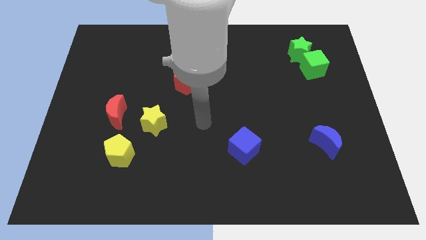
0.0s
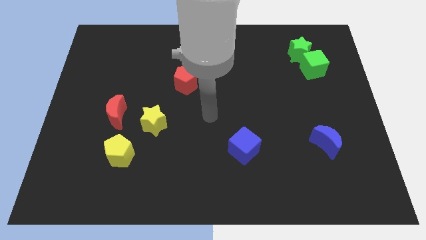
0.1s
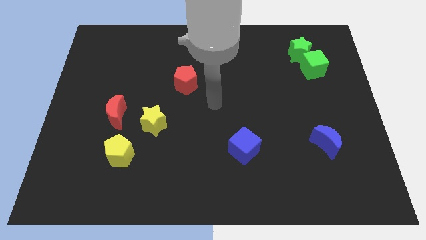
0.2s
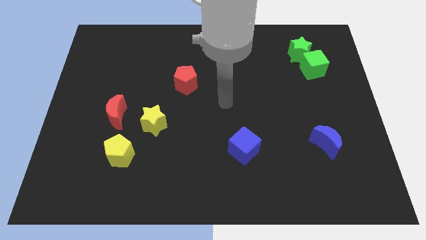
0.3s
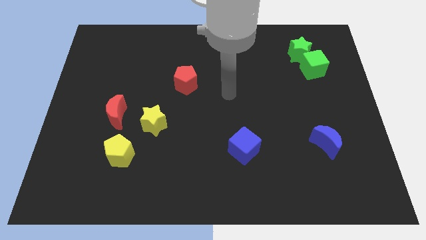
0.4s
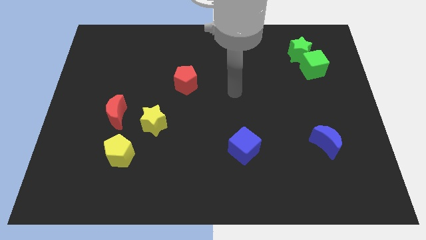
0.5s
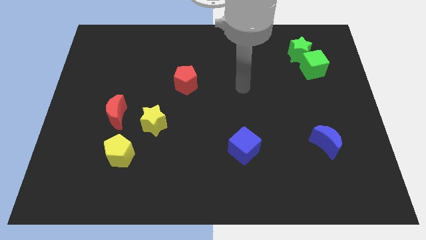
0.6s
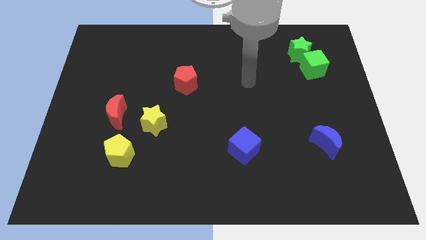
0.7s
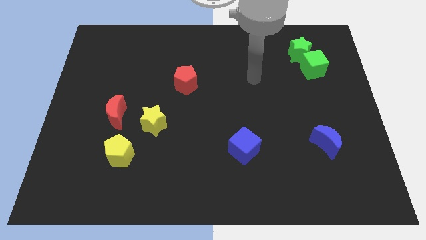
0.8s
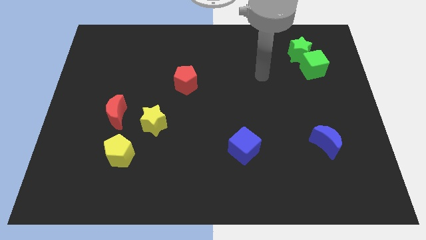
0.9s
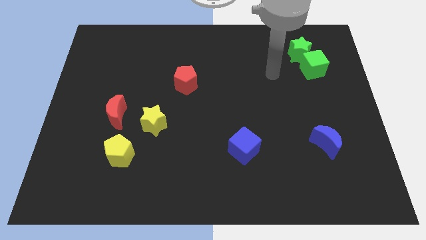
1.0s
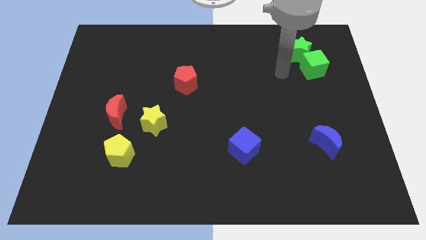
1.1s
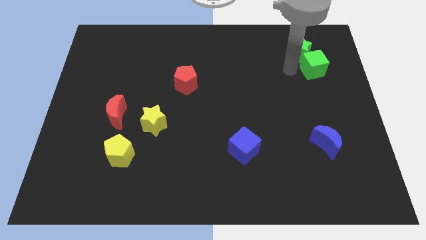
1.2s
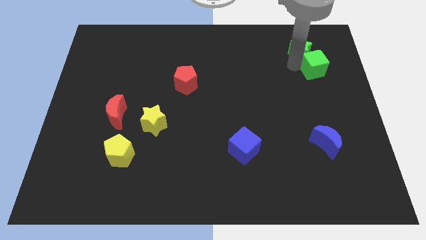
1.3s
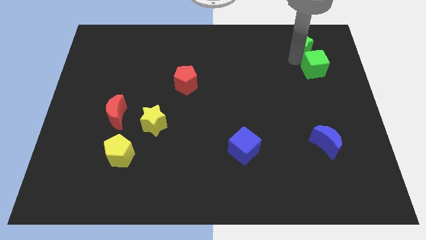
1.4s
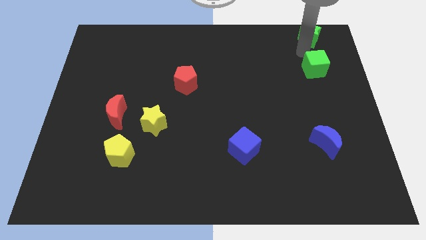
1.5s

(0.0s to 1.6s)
pull the green cube apart from the green star

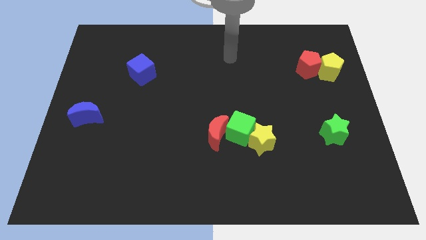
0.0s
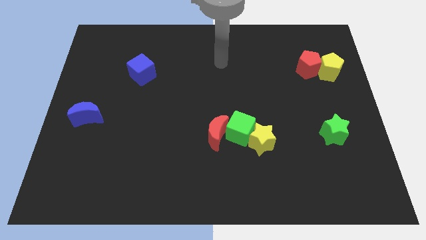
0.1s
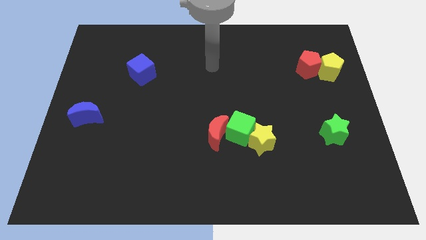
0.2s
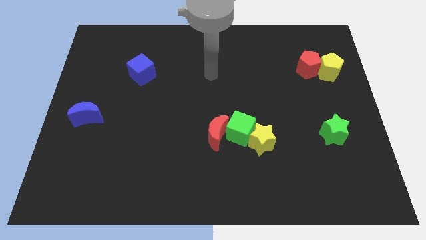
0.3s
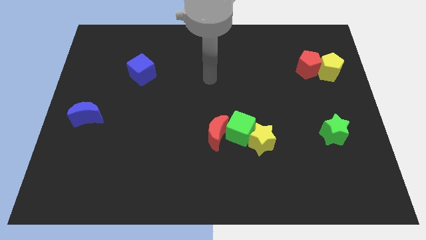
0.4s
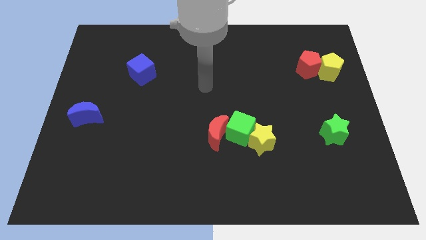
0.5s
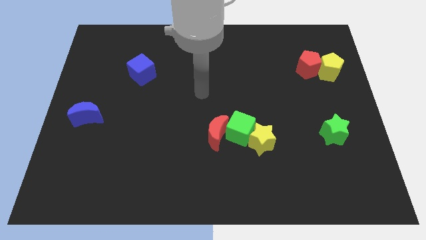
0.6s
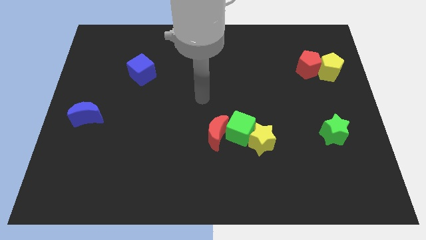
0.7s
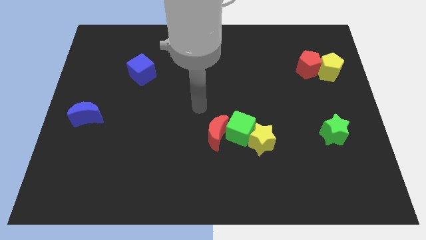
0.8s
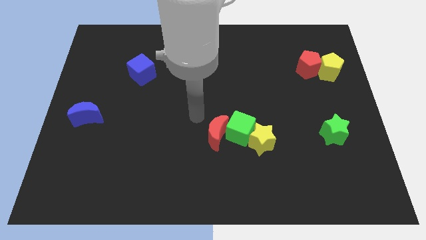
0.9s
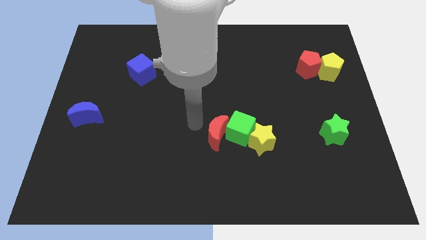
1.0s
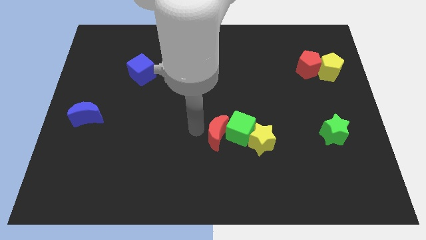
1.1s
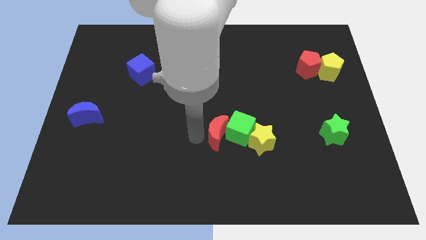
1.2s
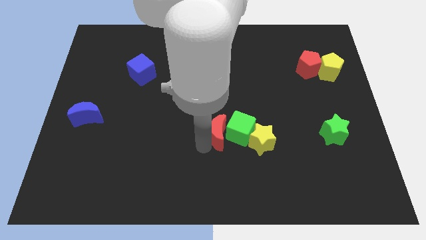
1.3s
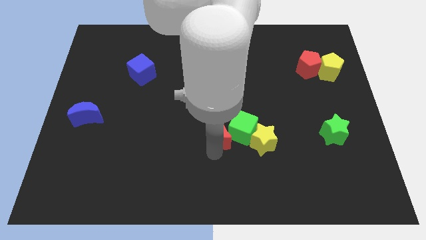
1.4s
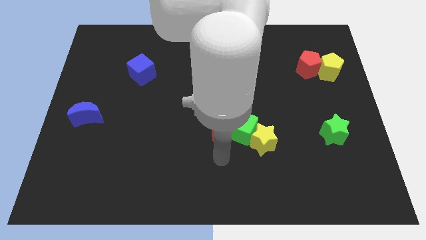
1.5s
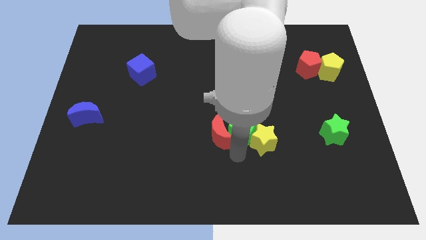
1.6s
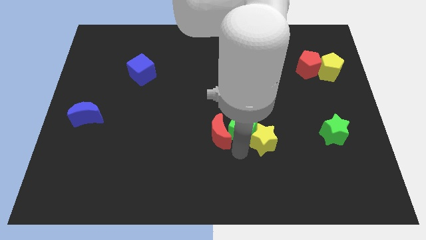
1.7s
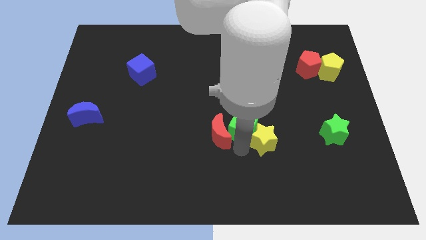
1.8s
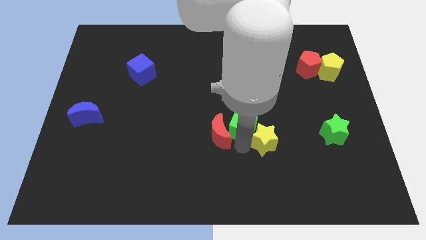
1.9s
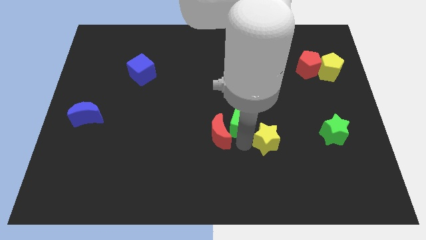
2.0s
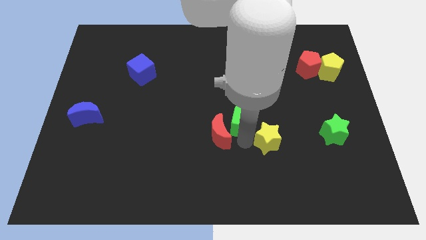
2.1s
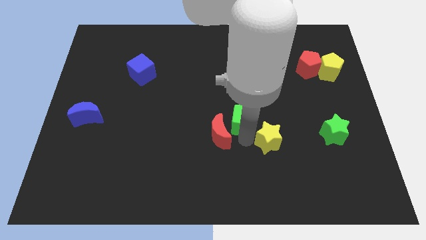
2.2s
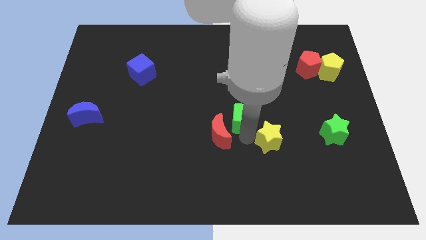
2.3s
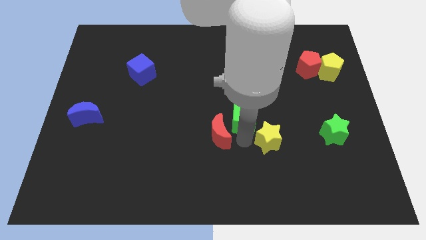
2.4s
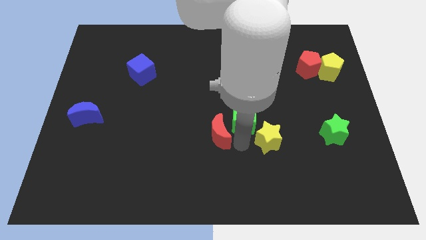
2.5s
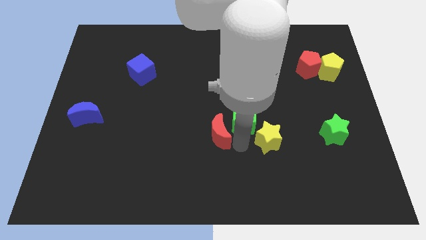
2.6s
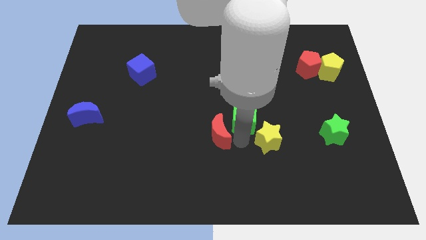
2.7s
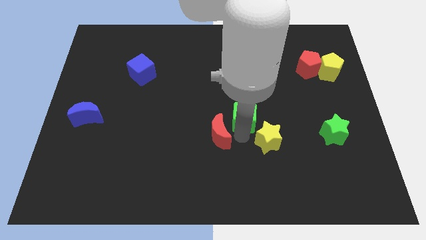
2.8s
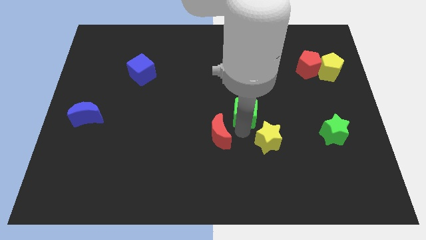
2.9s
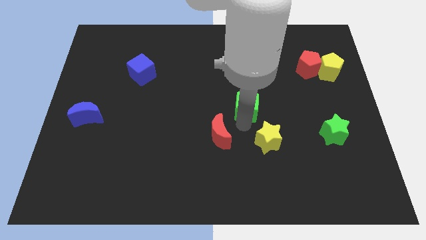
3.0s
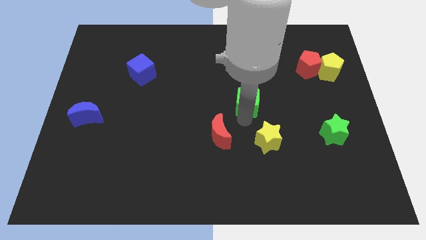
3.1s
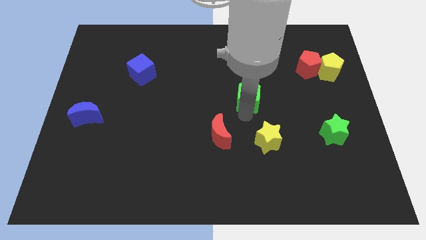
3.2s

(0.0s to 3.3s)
move the green cube away from the yellow star and red moon

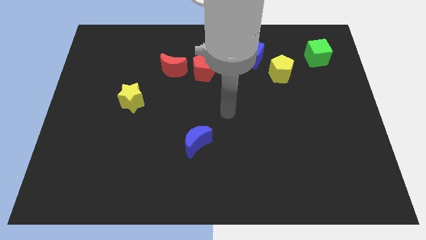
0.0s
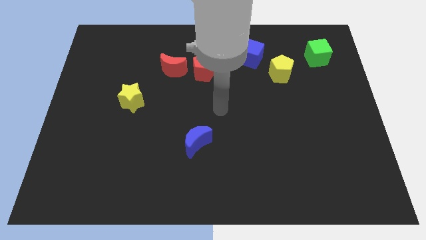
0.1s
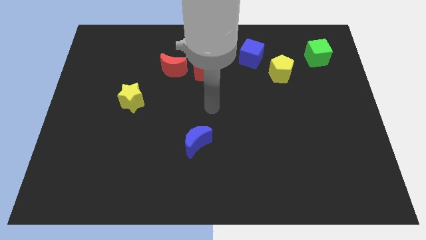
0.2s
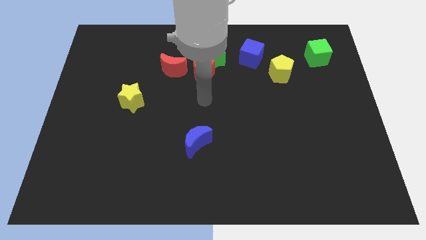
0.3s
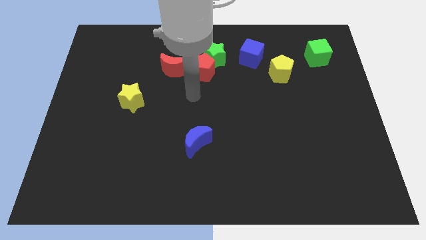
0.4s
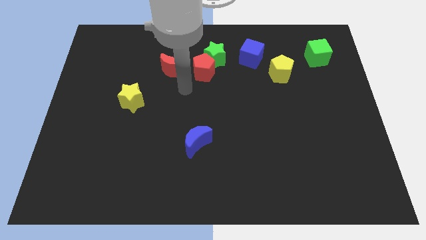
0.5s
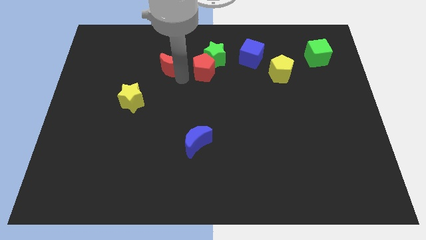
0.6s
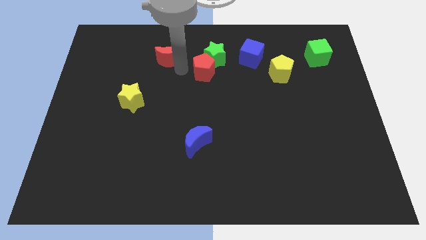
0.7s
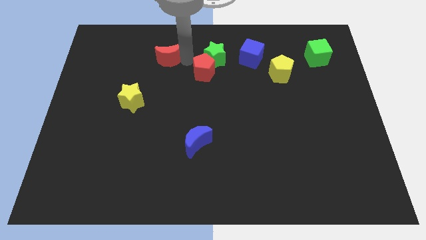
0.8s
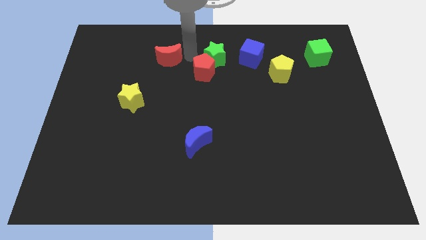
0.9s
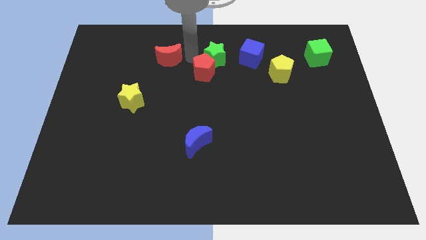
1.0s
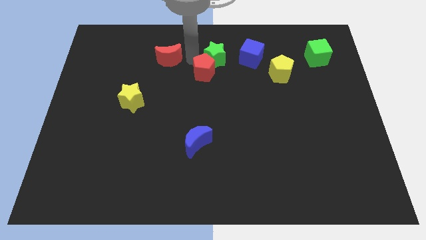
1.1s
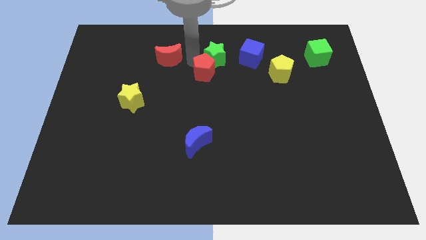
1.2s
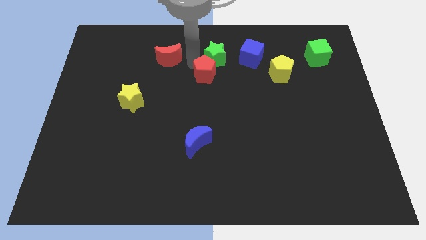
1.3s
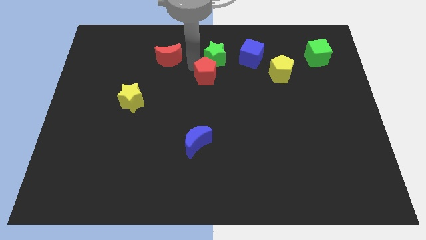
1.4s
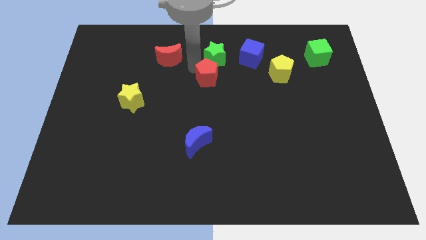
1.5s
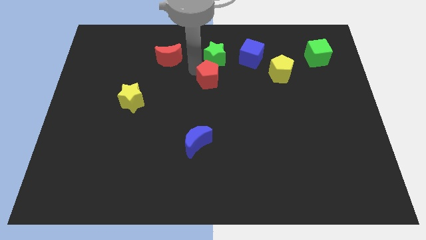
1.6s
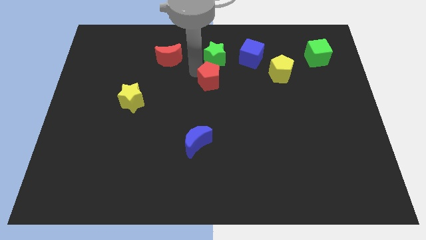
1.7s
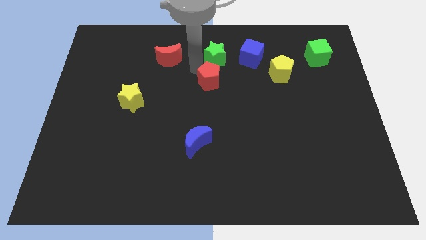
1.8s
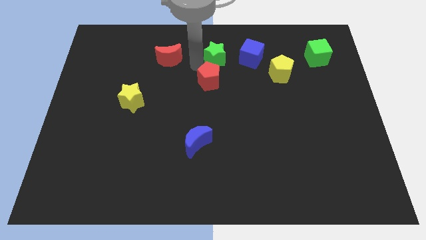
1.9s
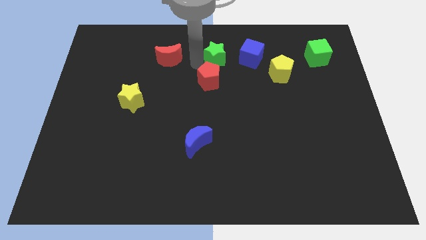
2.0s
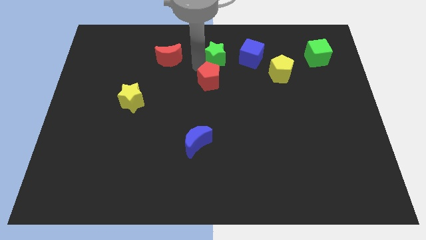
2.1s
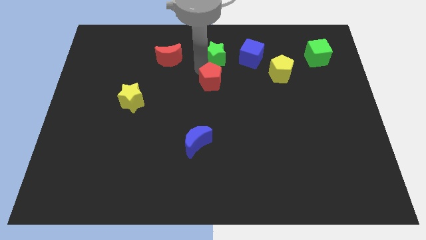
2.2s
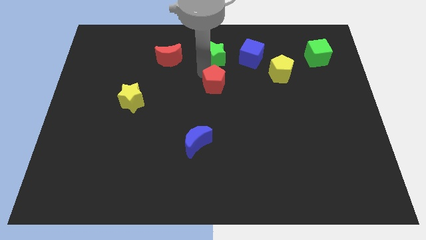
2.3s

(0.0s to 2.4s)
pull the red pentagon apart from the green star and red moon

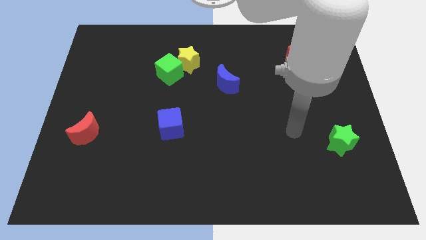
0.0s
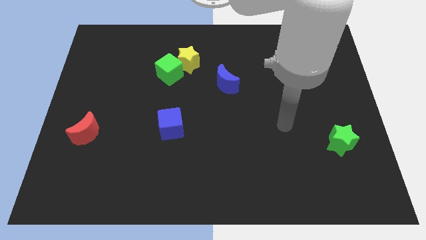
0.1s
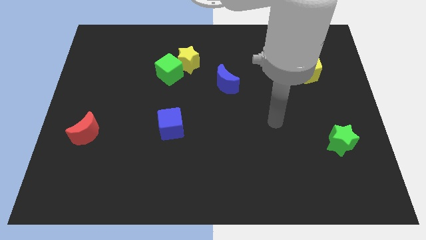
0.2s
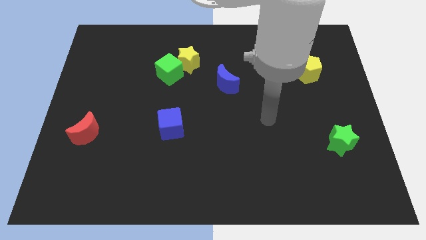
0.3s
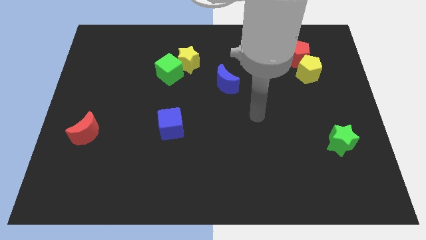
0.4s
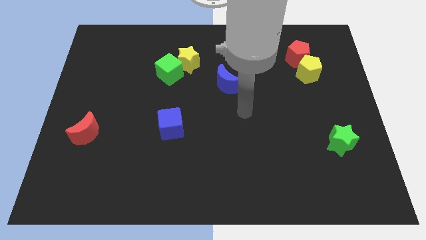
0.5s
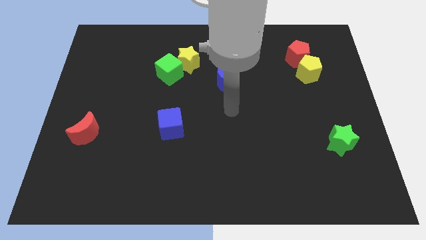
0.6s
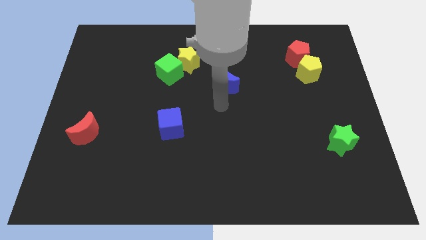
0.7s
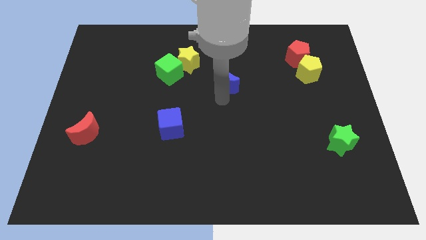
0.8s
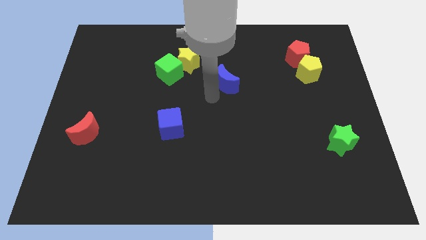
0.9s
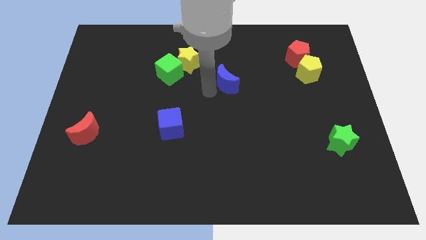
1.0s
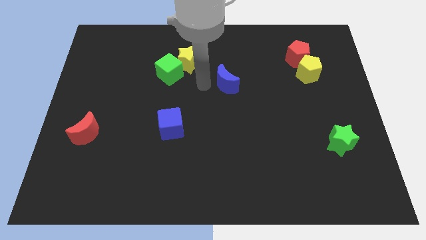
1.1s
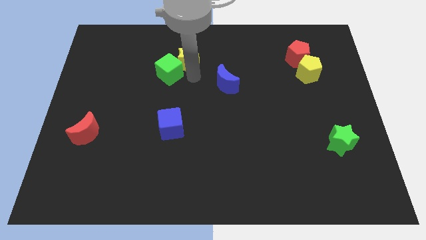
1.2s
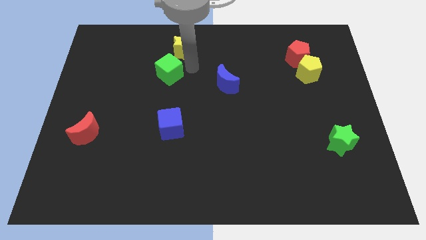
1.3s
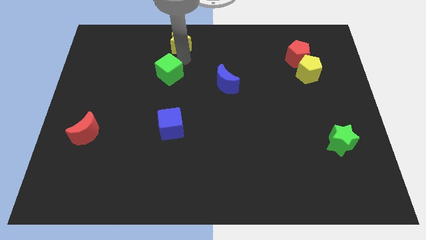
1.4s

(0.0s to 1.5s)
separate the green cube from the yellow star

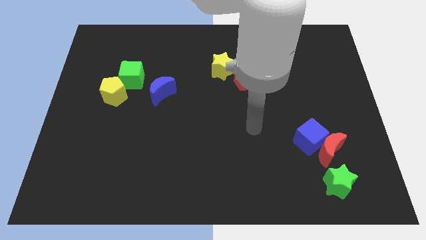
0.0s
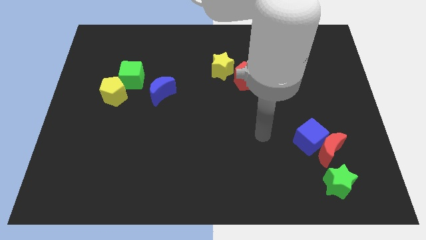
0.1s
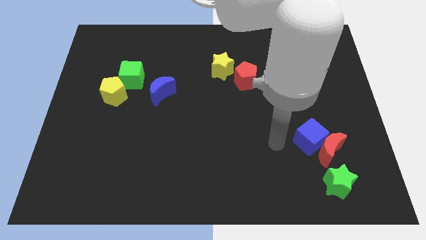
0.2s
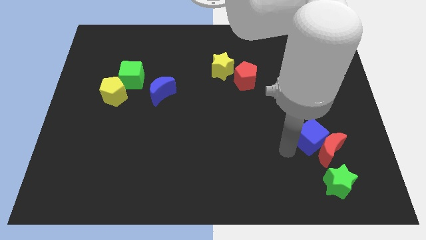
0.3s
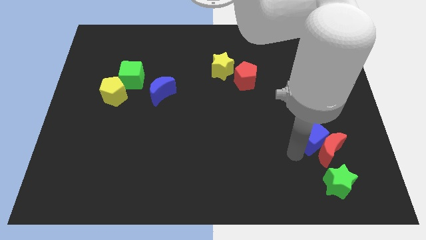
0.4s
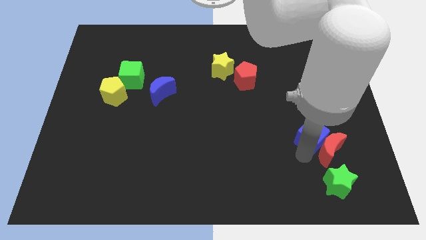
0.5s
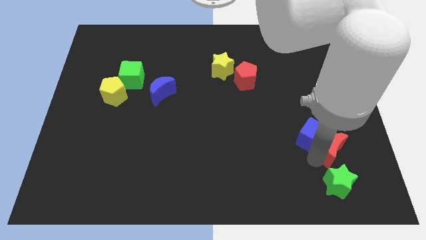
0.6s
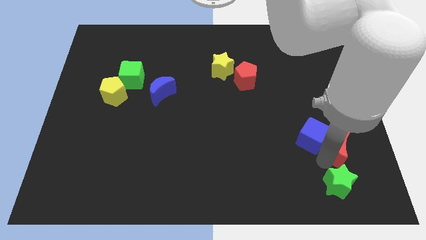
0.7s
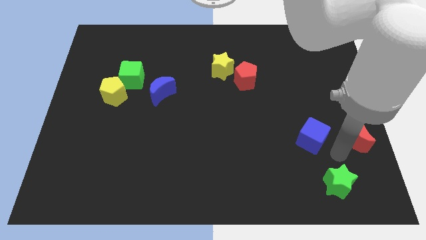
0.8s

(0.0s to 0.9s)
separate the blue cube from the red moon
